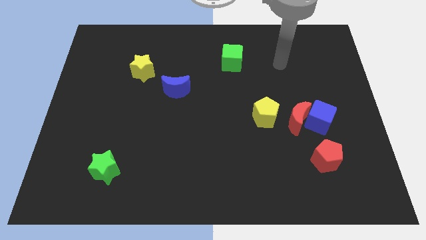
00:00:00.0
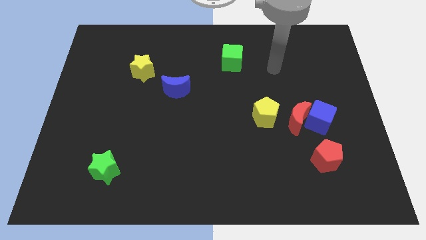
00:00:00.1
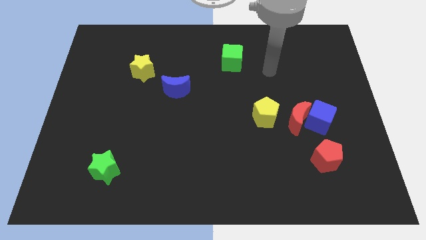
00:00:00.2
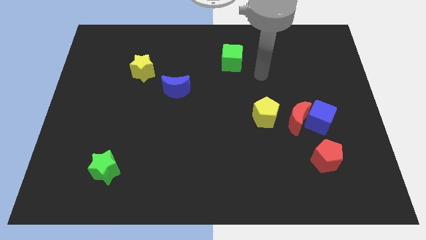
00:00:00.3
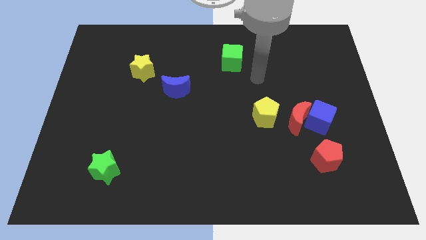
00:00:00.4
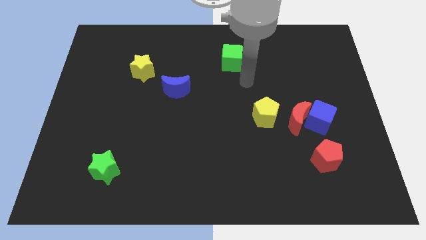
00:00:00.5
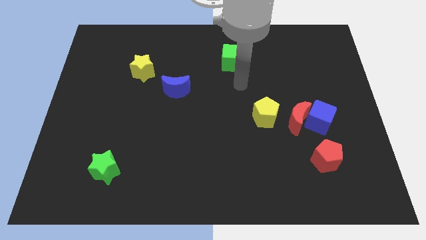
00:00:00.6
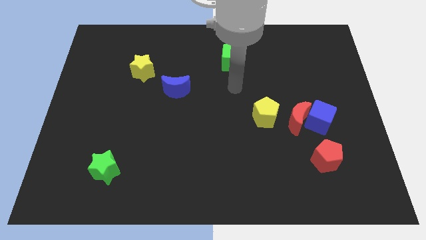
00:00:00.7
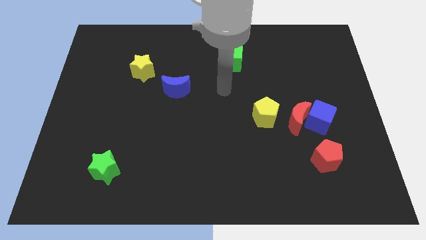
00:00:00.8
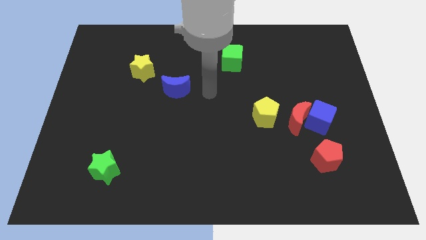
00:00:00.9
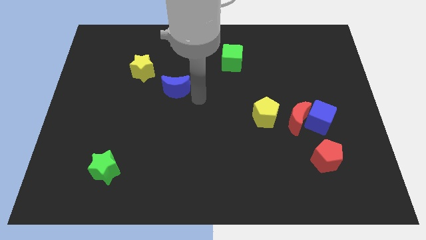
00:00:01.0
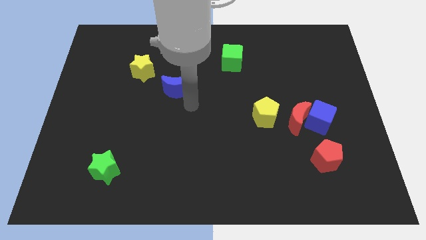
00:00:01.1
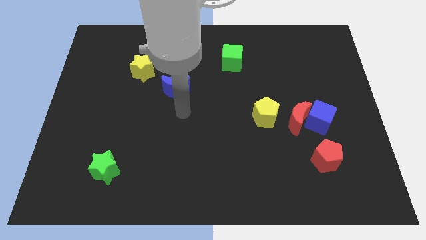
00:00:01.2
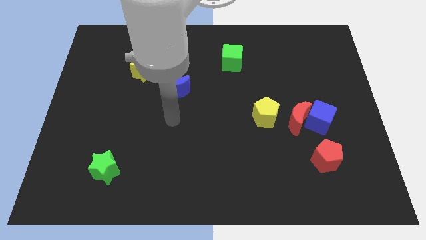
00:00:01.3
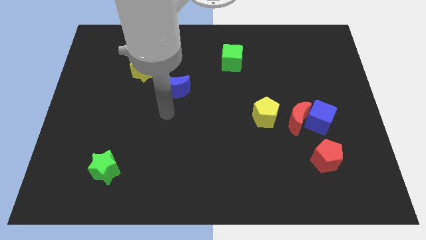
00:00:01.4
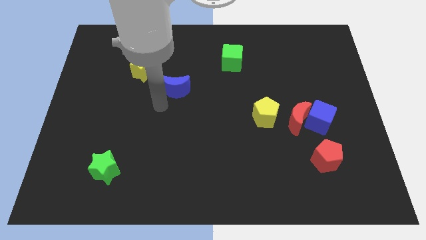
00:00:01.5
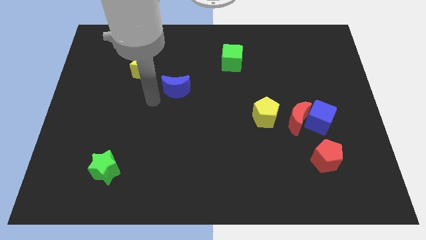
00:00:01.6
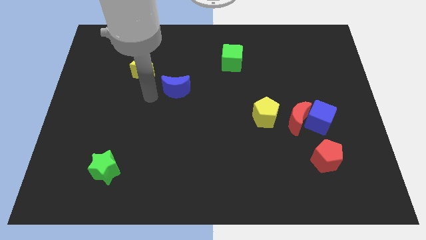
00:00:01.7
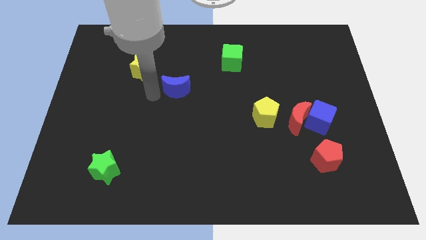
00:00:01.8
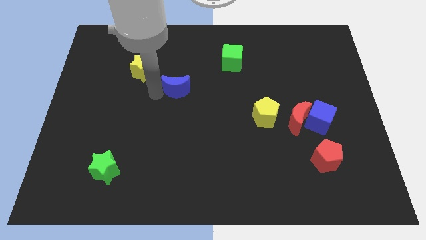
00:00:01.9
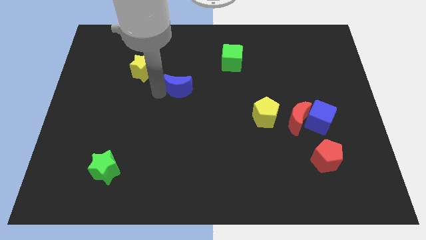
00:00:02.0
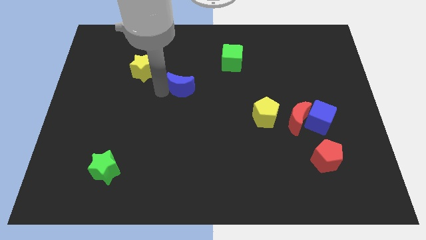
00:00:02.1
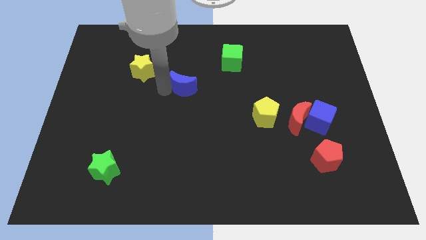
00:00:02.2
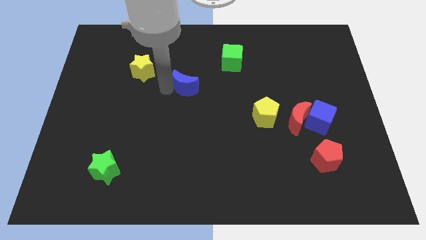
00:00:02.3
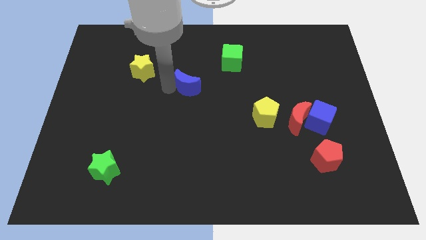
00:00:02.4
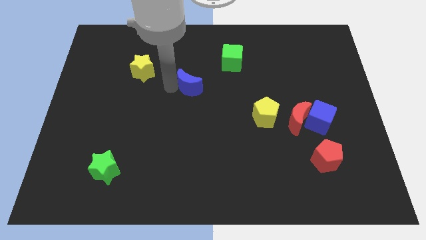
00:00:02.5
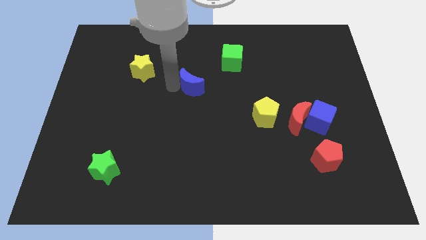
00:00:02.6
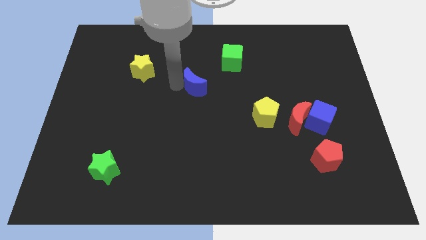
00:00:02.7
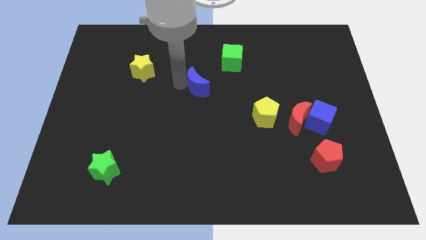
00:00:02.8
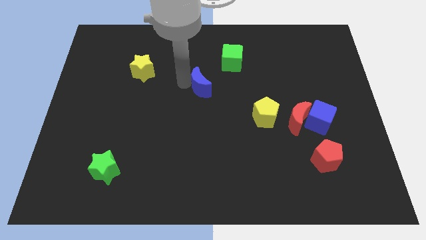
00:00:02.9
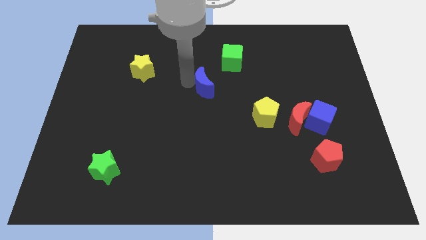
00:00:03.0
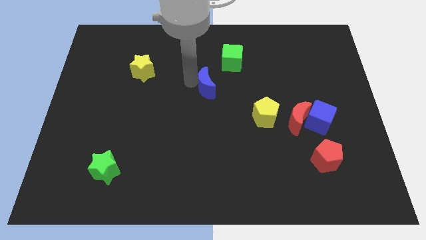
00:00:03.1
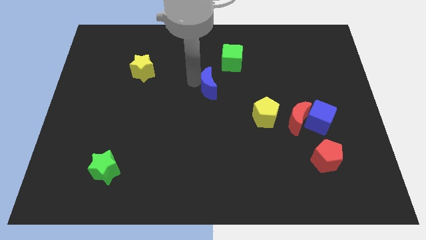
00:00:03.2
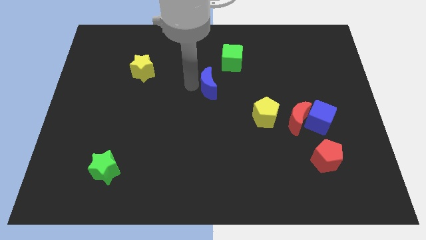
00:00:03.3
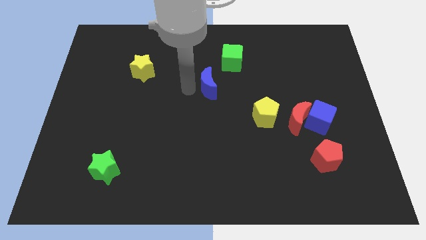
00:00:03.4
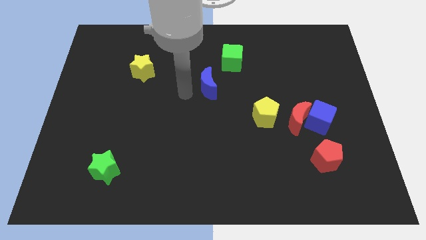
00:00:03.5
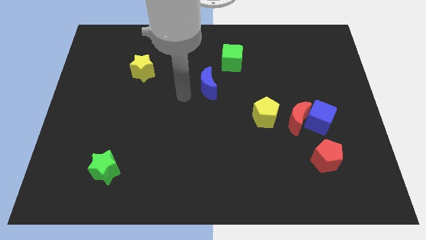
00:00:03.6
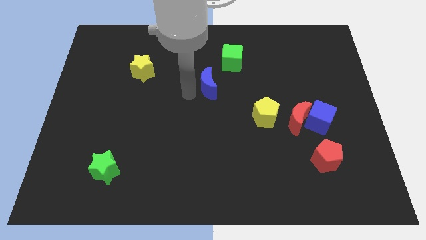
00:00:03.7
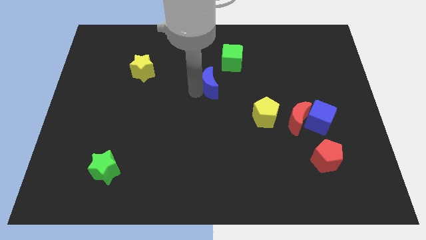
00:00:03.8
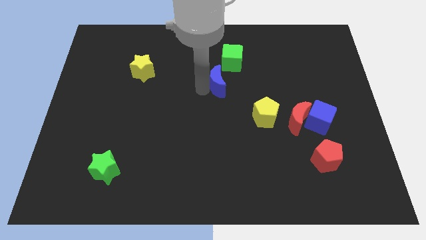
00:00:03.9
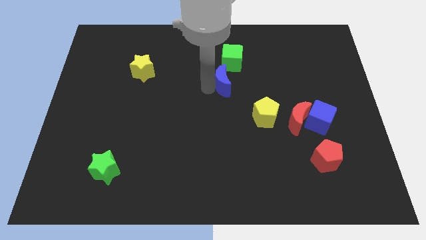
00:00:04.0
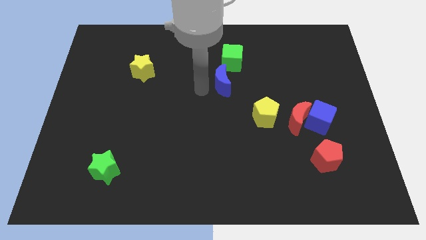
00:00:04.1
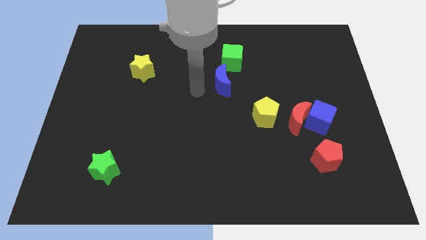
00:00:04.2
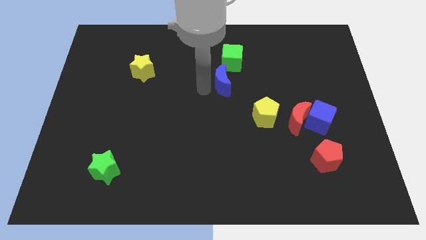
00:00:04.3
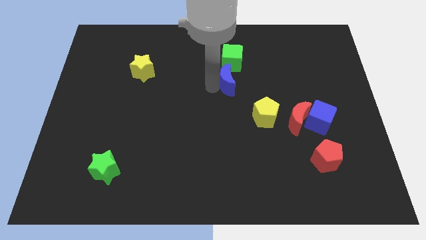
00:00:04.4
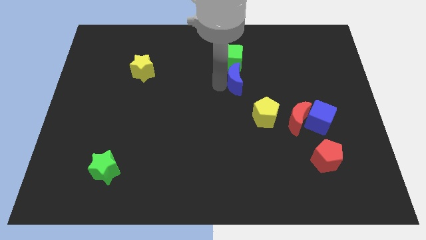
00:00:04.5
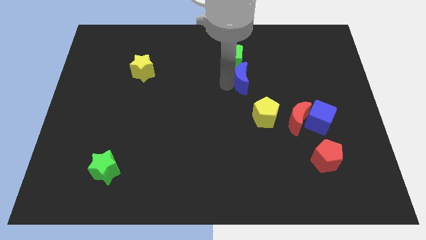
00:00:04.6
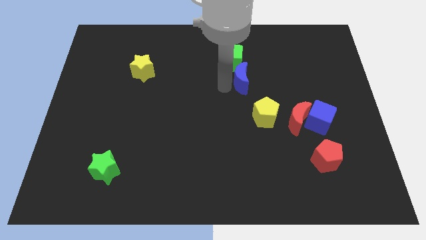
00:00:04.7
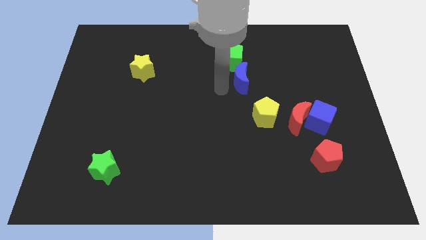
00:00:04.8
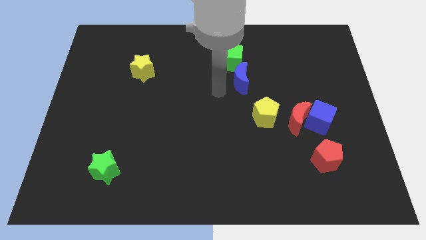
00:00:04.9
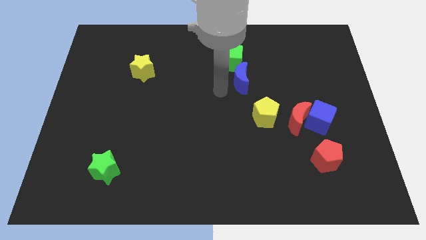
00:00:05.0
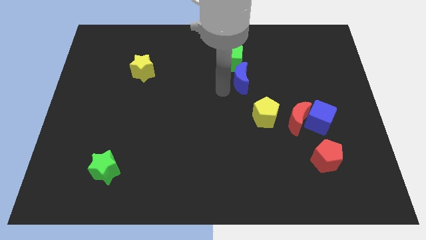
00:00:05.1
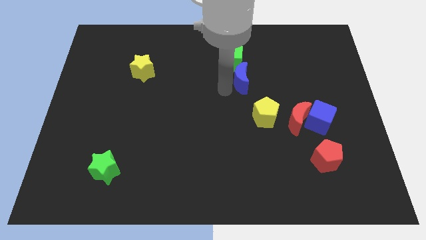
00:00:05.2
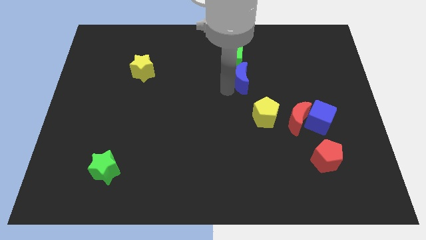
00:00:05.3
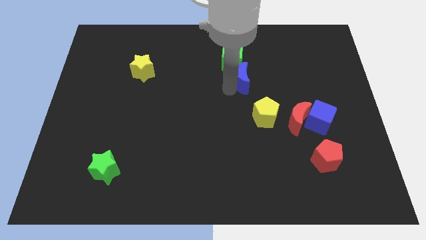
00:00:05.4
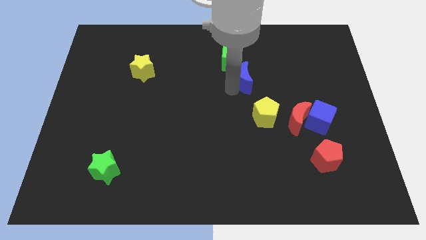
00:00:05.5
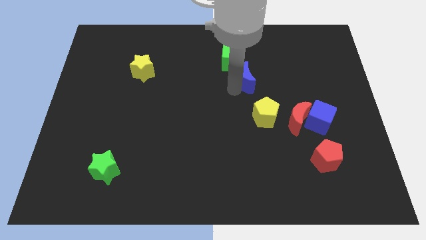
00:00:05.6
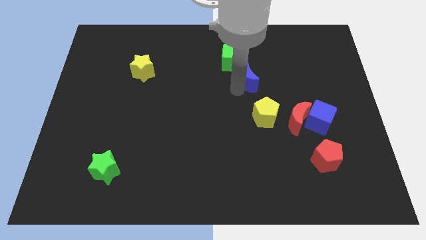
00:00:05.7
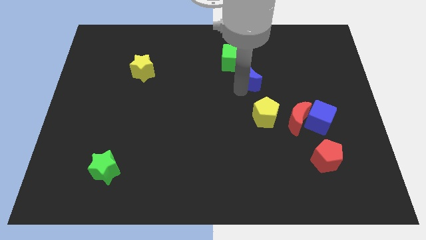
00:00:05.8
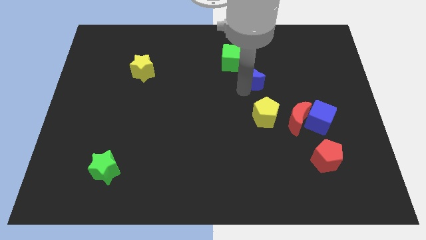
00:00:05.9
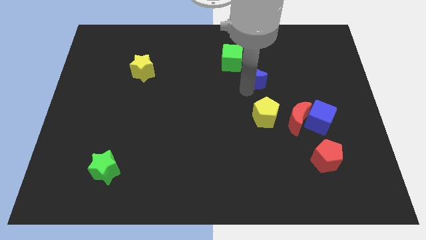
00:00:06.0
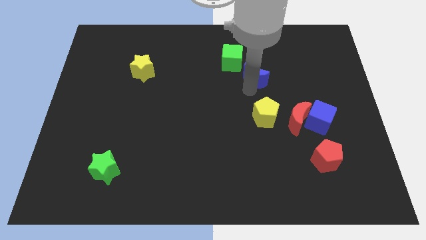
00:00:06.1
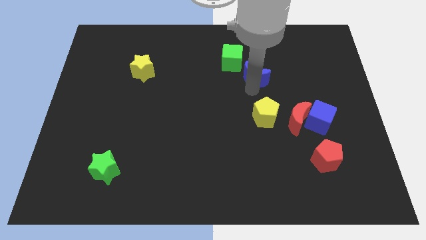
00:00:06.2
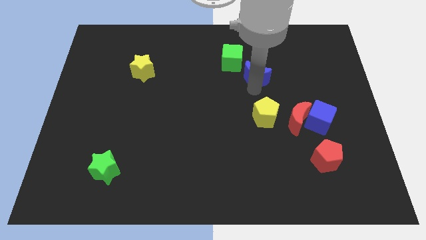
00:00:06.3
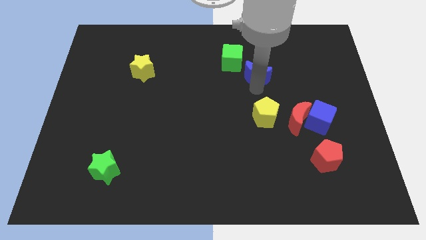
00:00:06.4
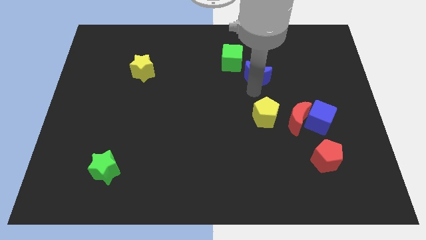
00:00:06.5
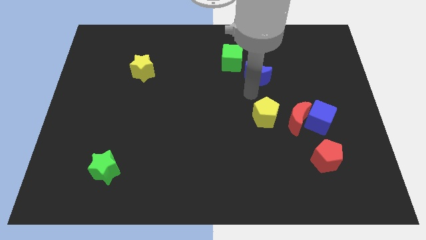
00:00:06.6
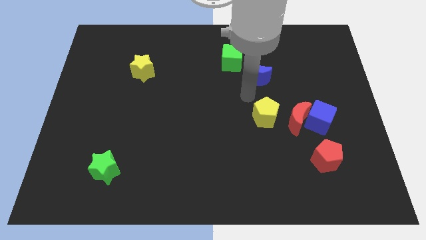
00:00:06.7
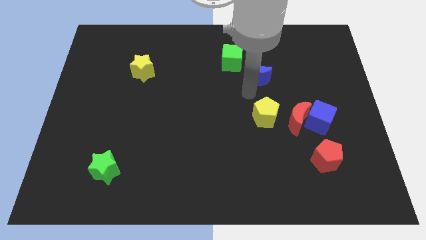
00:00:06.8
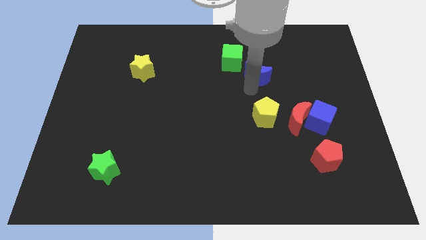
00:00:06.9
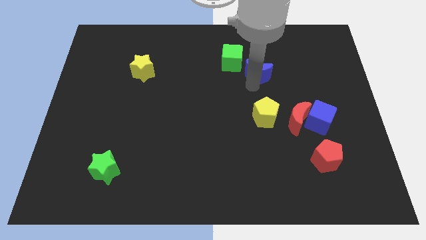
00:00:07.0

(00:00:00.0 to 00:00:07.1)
slide the blue moon to the right side of the green cube

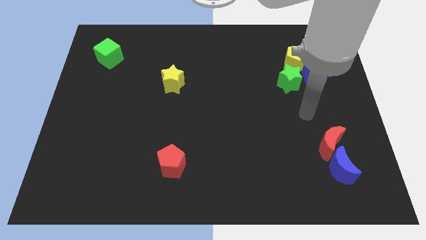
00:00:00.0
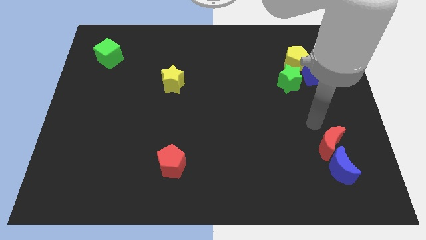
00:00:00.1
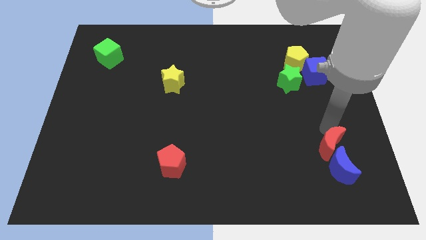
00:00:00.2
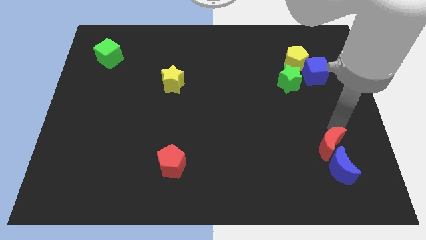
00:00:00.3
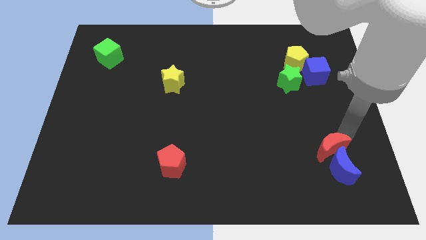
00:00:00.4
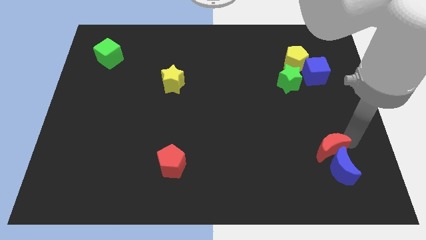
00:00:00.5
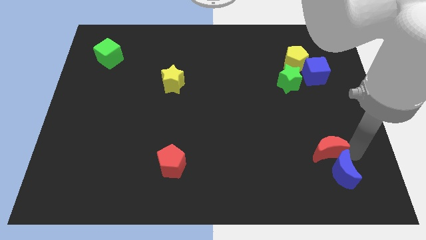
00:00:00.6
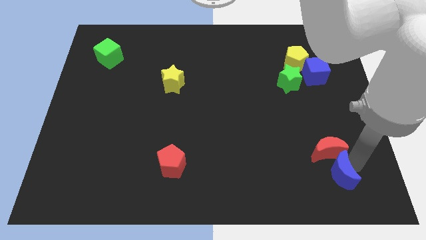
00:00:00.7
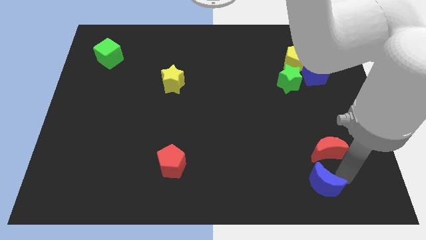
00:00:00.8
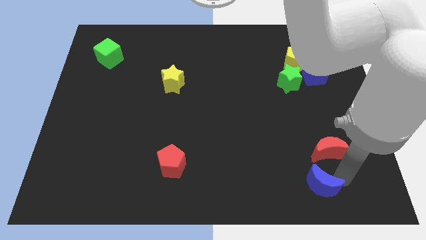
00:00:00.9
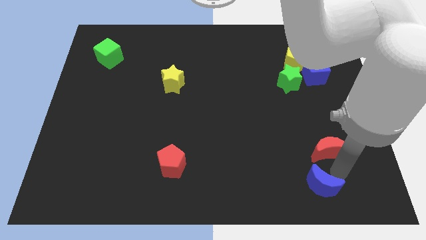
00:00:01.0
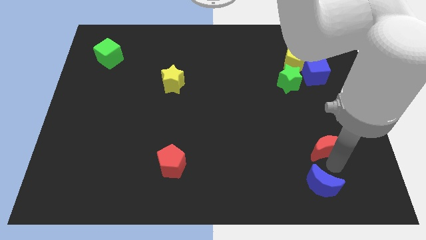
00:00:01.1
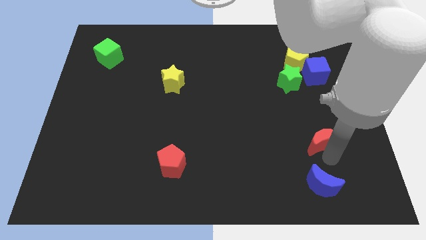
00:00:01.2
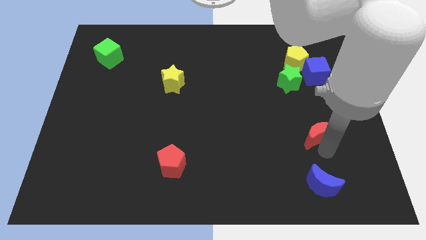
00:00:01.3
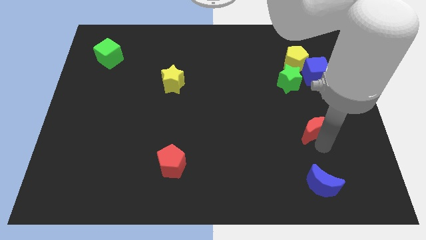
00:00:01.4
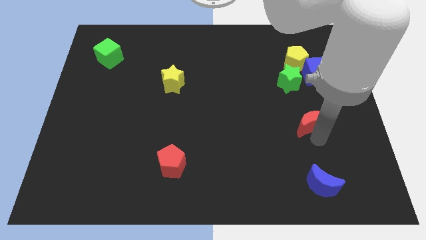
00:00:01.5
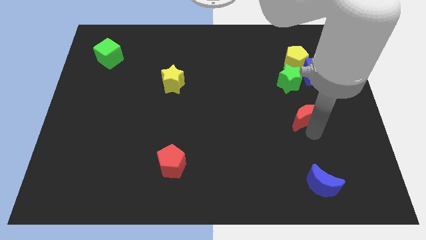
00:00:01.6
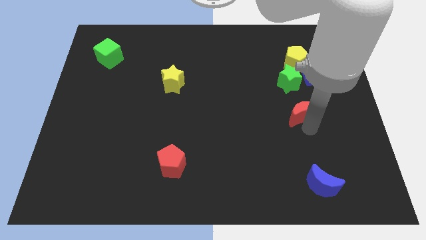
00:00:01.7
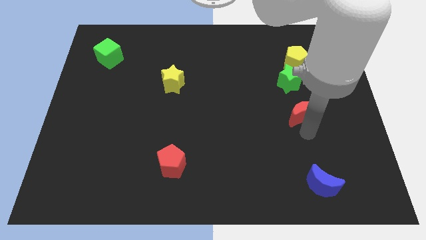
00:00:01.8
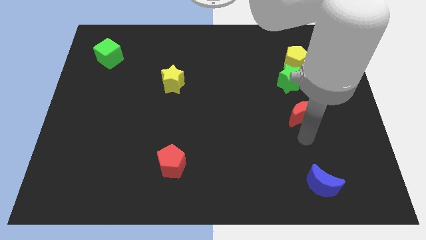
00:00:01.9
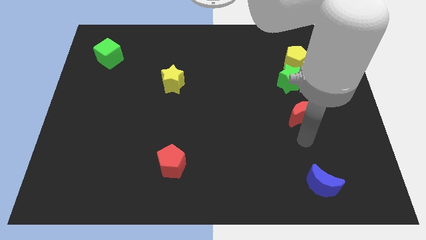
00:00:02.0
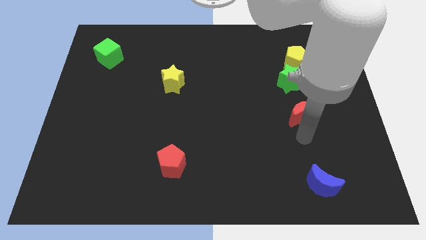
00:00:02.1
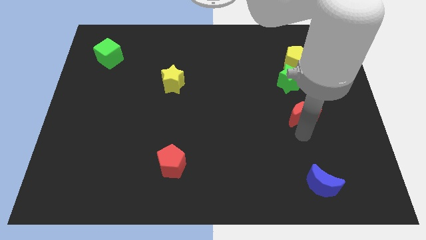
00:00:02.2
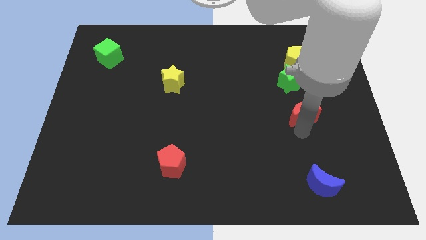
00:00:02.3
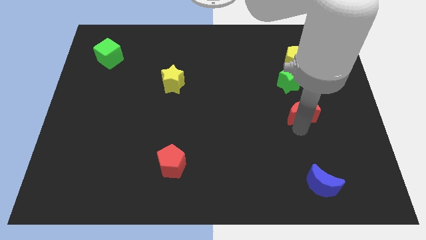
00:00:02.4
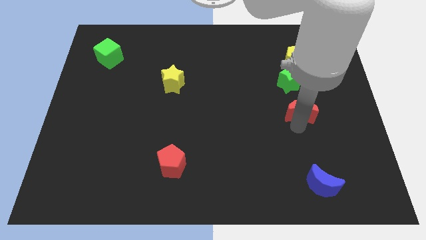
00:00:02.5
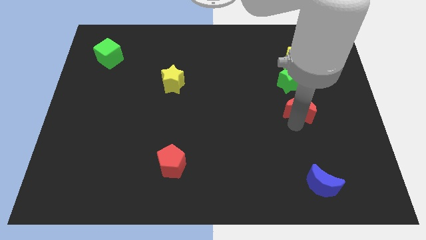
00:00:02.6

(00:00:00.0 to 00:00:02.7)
move the red moon below the yellow pentagon
